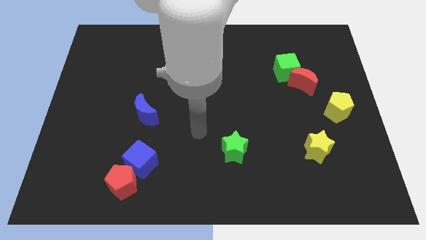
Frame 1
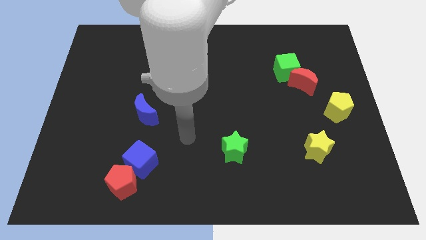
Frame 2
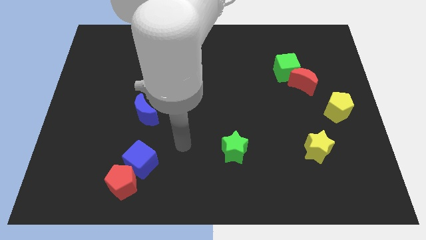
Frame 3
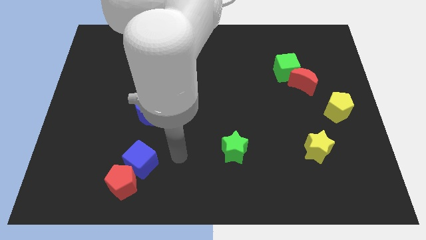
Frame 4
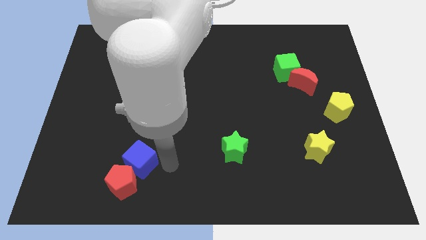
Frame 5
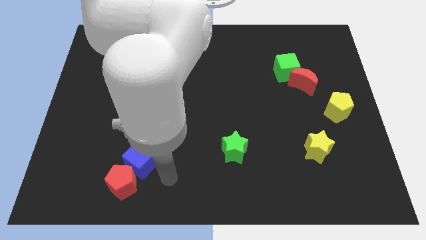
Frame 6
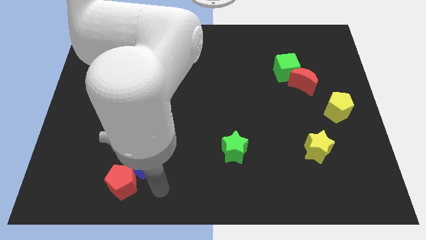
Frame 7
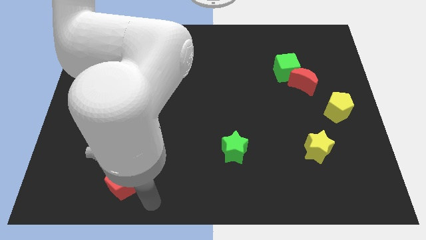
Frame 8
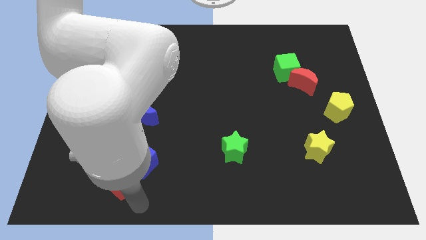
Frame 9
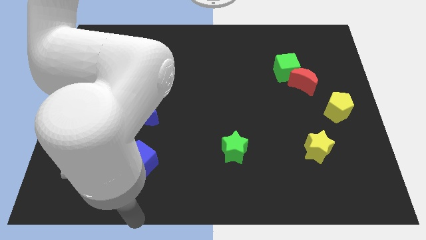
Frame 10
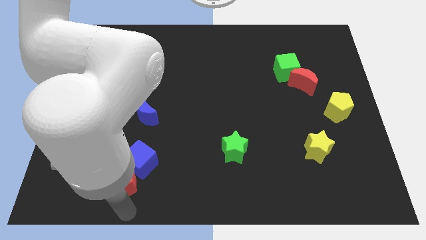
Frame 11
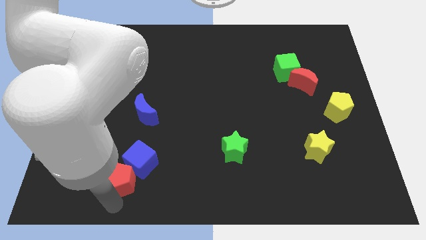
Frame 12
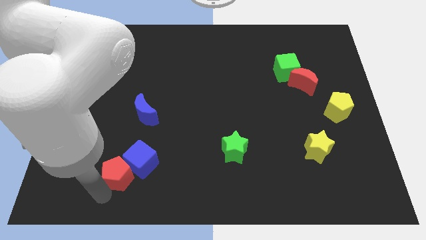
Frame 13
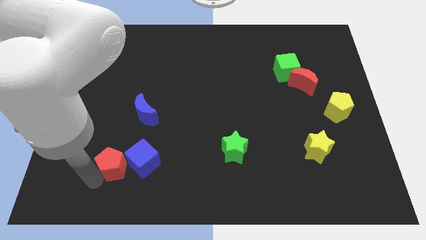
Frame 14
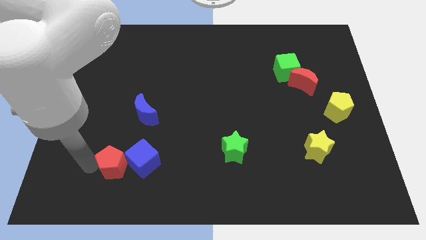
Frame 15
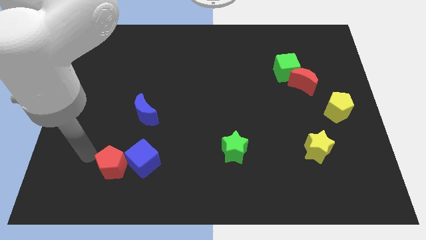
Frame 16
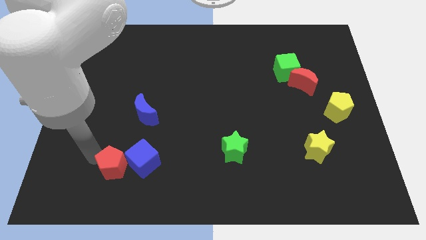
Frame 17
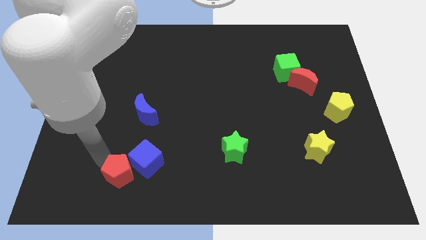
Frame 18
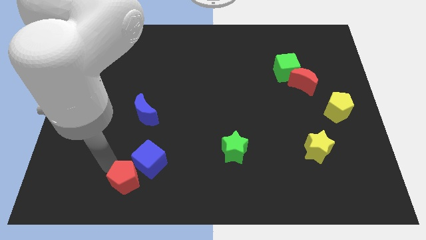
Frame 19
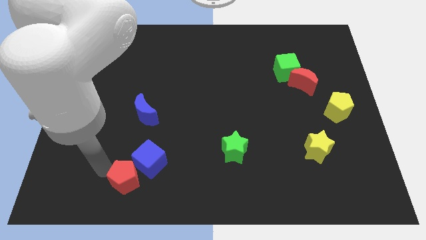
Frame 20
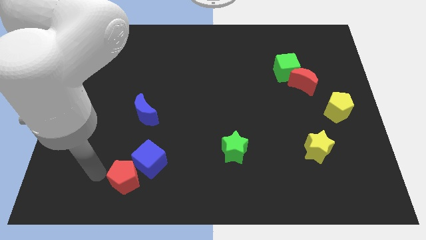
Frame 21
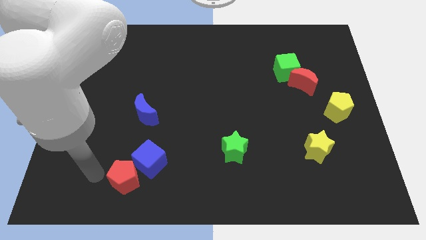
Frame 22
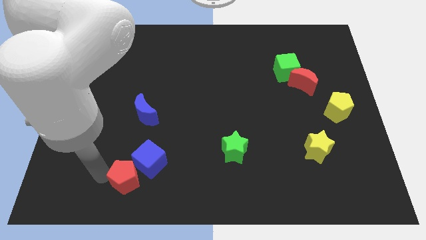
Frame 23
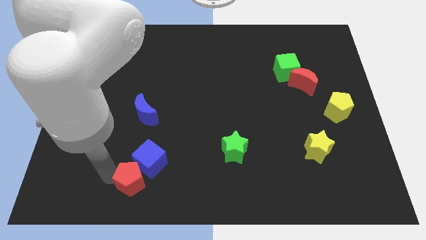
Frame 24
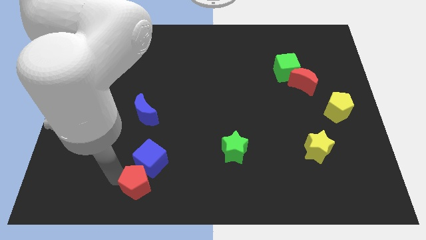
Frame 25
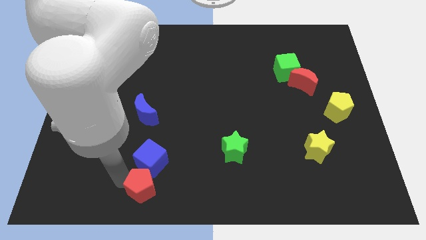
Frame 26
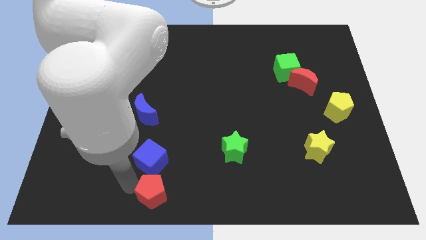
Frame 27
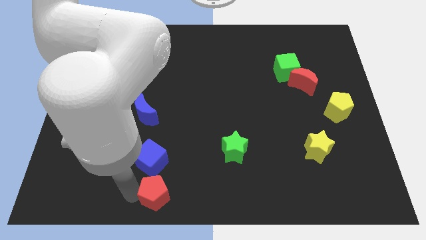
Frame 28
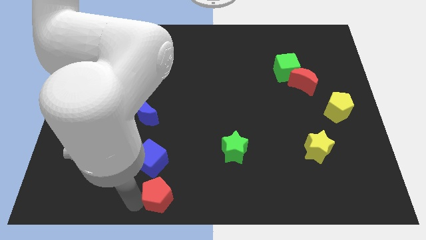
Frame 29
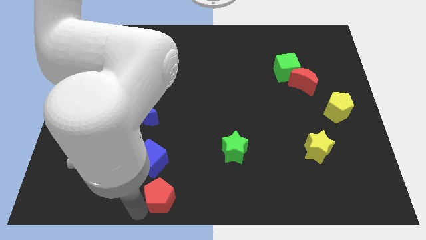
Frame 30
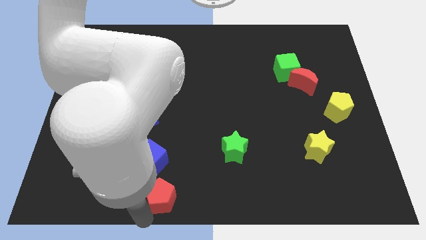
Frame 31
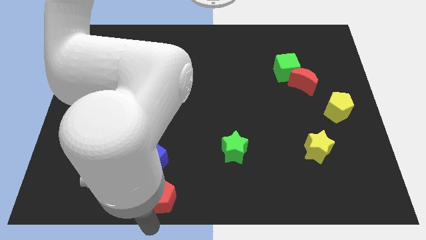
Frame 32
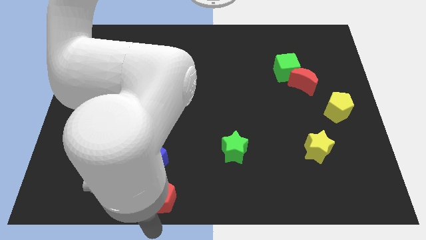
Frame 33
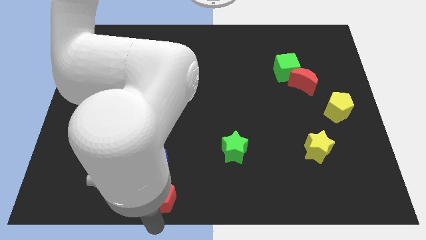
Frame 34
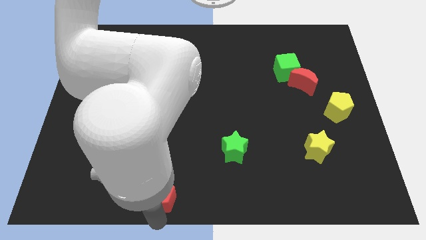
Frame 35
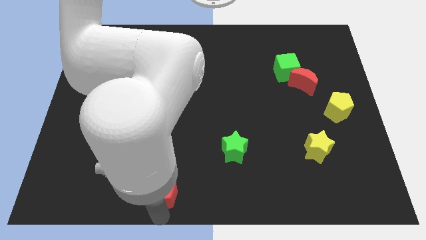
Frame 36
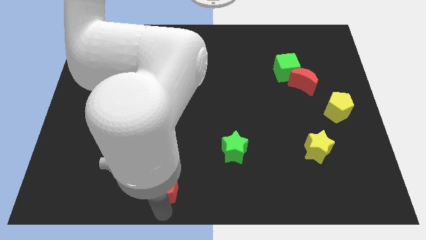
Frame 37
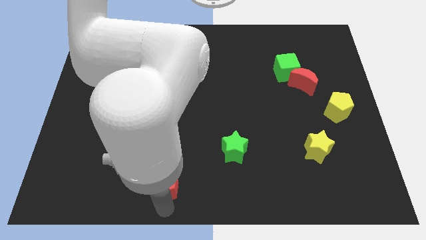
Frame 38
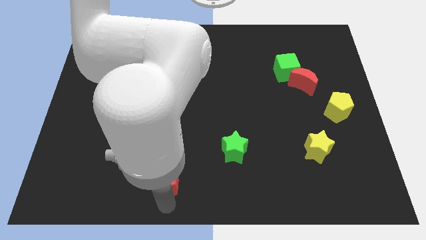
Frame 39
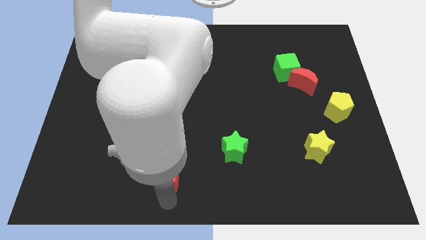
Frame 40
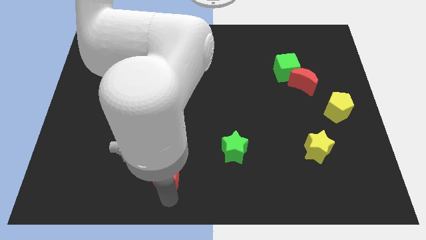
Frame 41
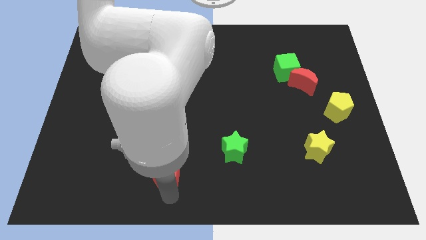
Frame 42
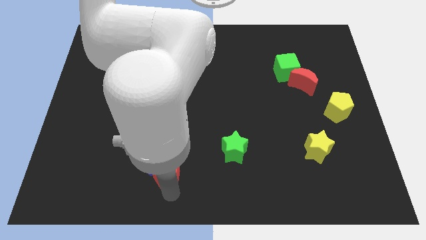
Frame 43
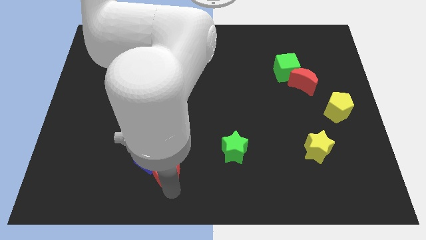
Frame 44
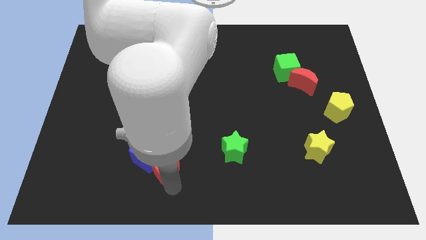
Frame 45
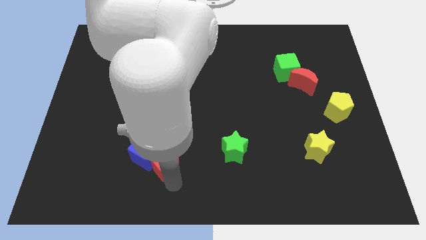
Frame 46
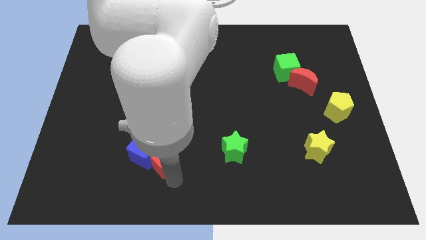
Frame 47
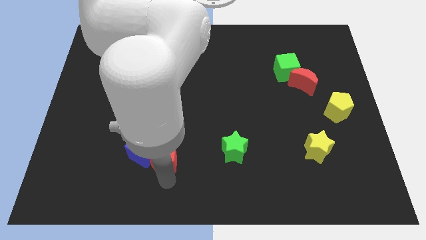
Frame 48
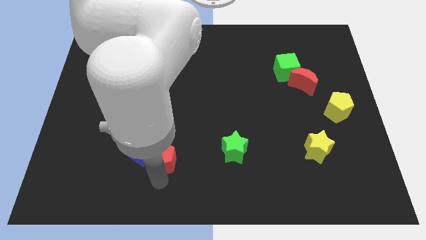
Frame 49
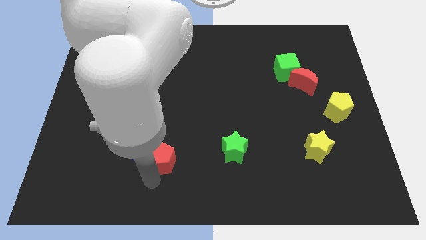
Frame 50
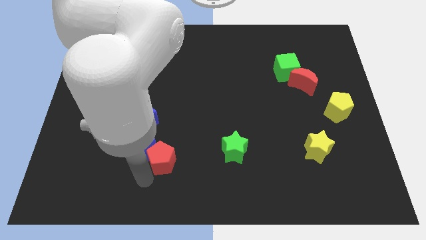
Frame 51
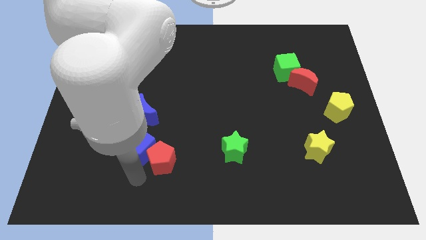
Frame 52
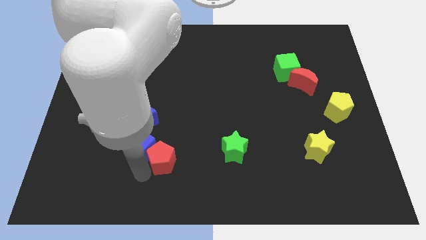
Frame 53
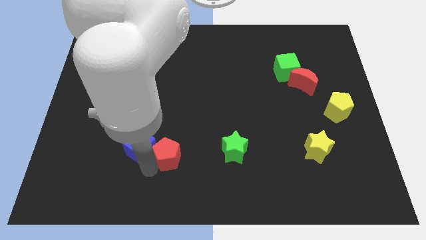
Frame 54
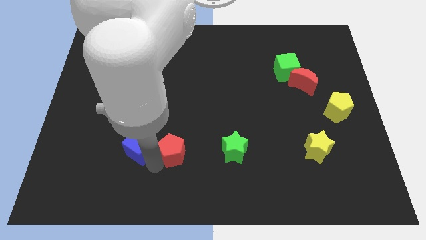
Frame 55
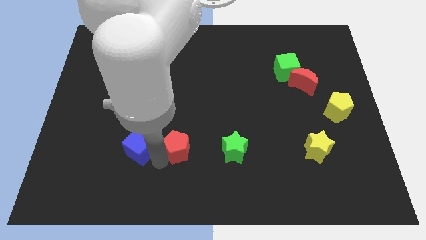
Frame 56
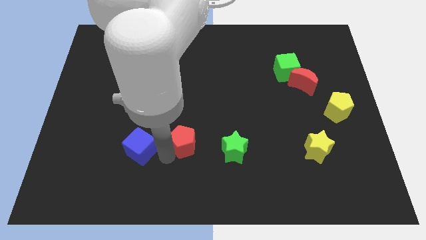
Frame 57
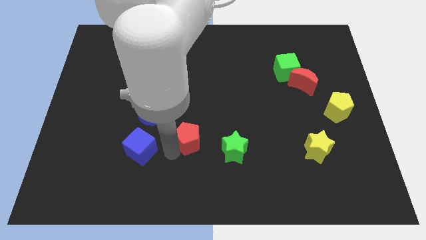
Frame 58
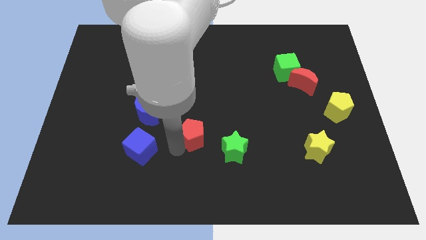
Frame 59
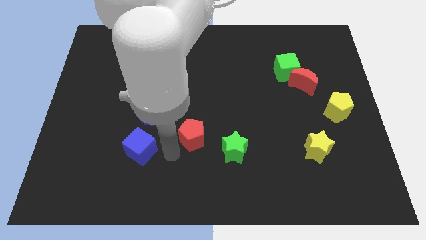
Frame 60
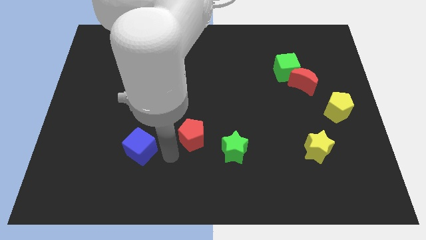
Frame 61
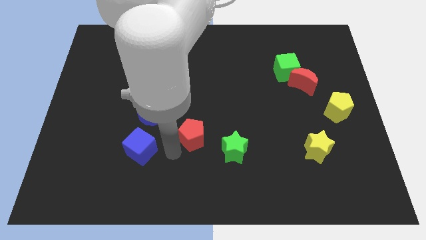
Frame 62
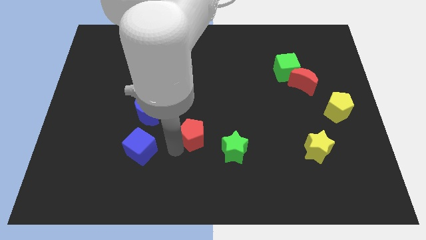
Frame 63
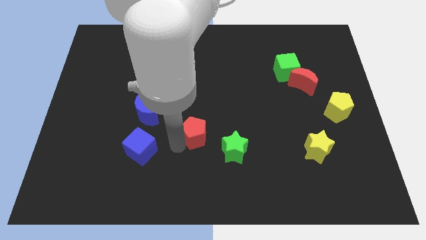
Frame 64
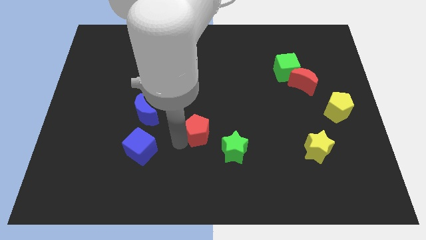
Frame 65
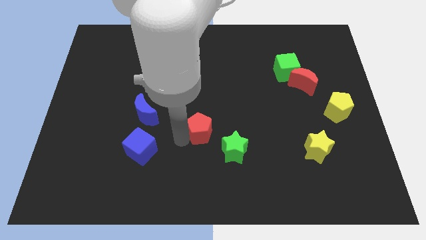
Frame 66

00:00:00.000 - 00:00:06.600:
slide the red pentagon diagonally upwards and to the right

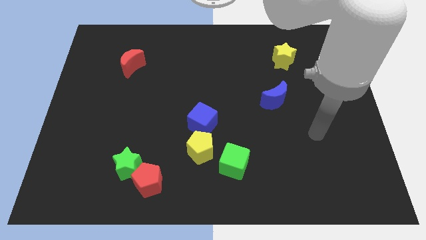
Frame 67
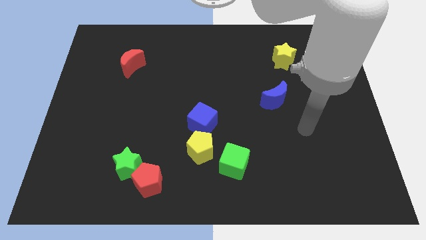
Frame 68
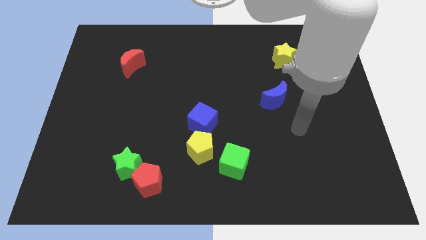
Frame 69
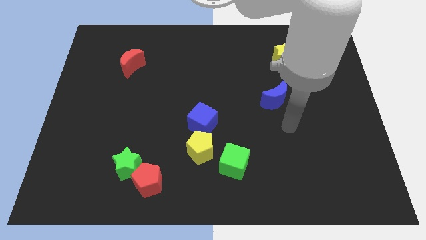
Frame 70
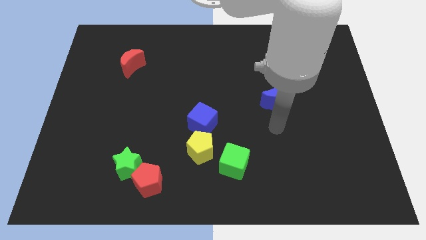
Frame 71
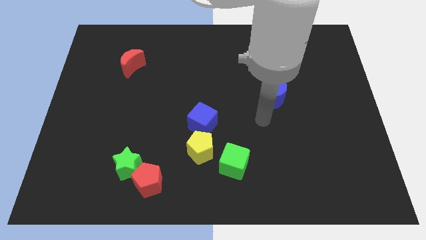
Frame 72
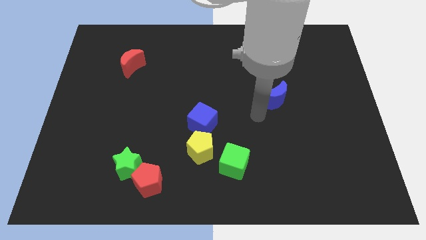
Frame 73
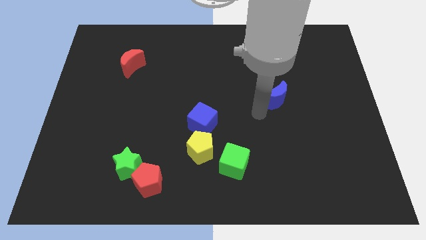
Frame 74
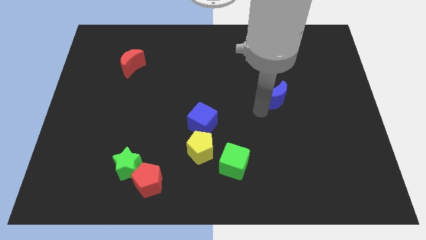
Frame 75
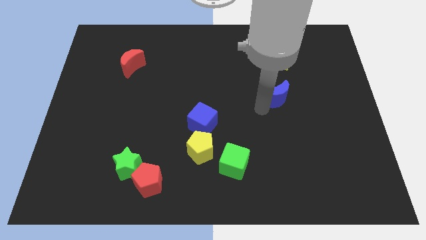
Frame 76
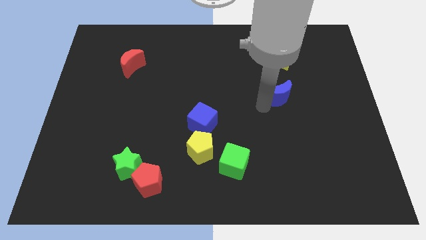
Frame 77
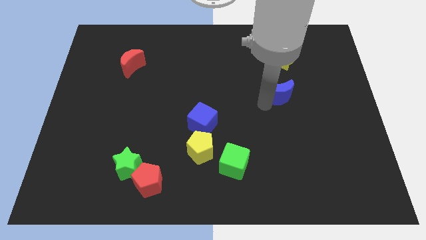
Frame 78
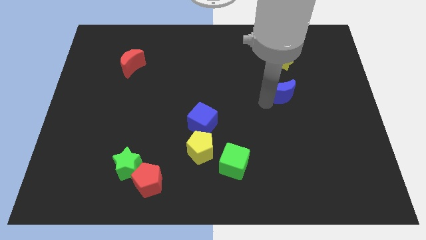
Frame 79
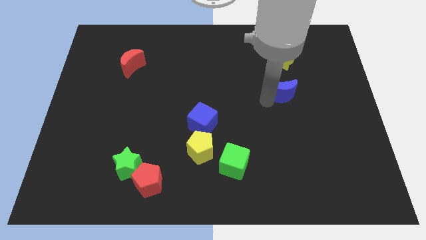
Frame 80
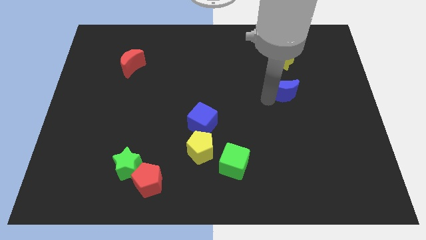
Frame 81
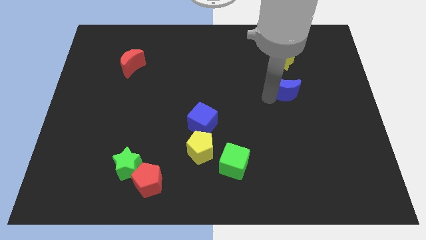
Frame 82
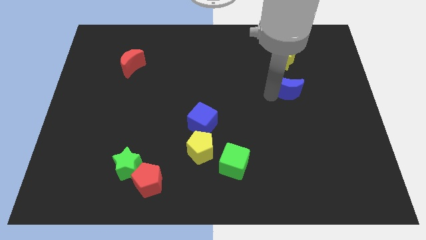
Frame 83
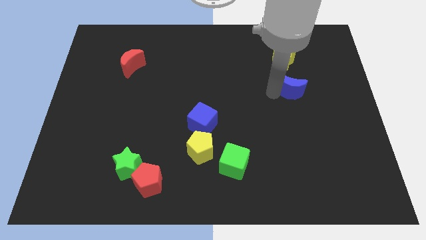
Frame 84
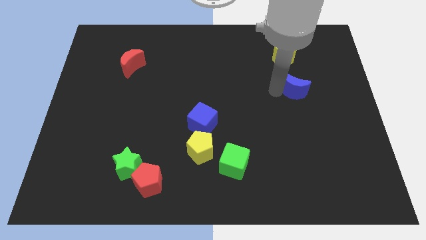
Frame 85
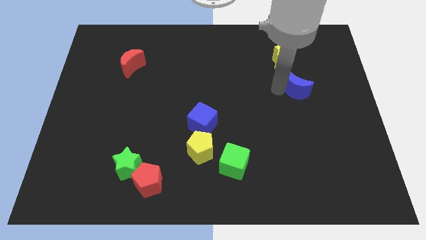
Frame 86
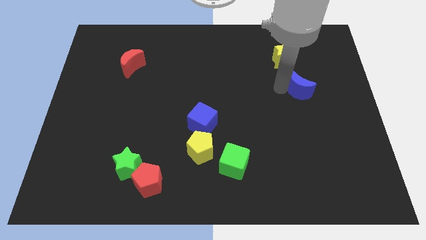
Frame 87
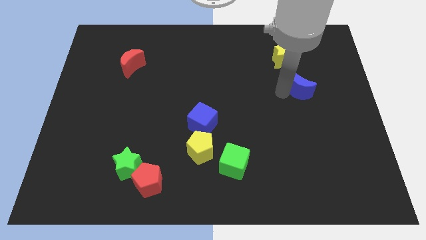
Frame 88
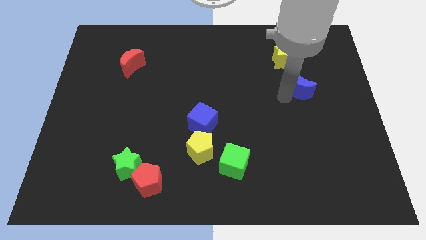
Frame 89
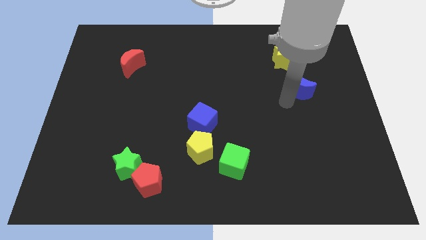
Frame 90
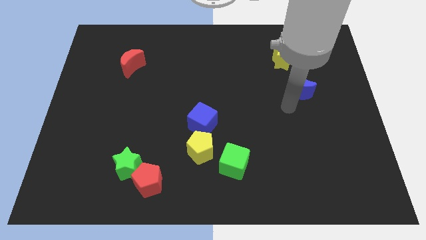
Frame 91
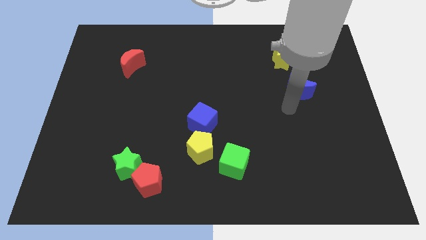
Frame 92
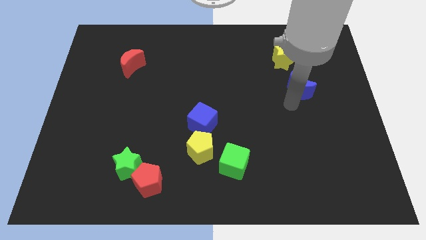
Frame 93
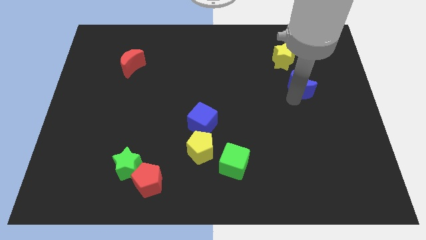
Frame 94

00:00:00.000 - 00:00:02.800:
push the blue moon up and then right a little bit
